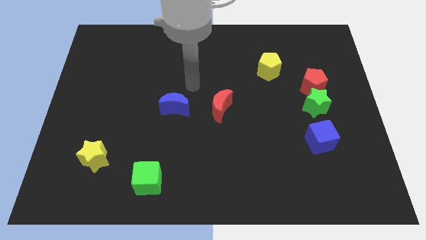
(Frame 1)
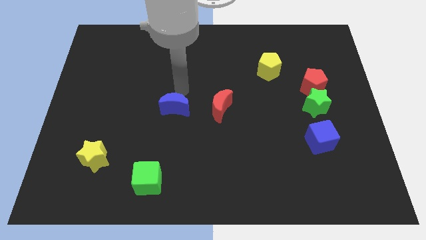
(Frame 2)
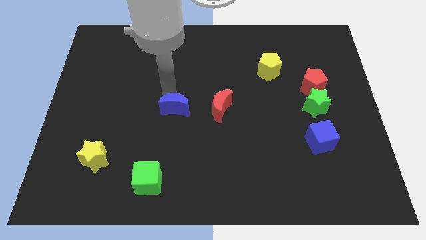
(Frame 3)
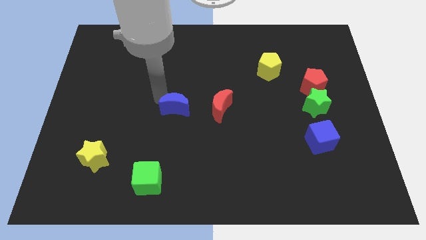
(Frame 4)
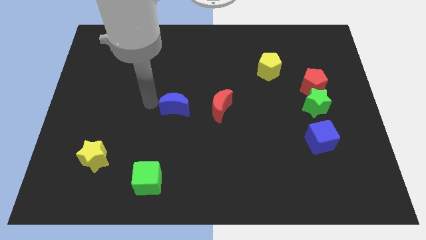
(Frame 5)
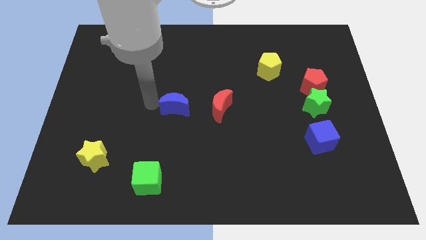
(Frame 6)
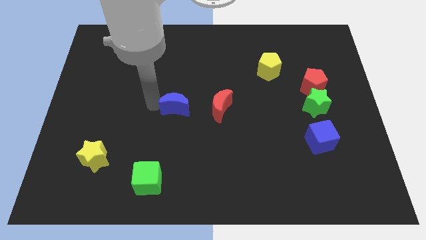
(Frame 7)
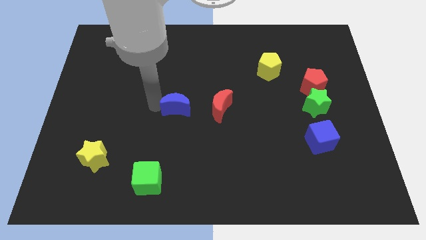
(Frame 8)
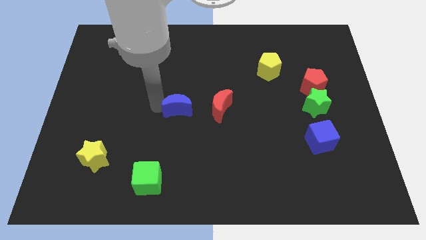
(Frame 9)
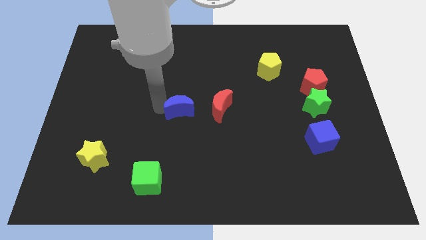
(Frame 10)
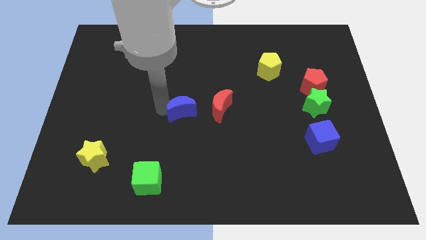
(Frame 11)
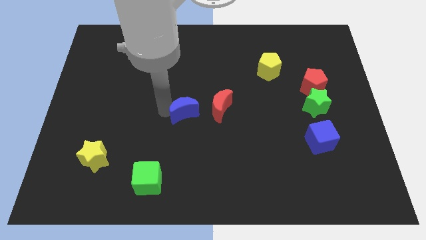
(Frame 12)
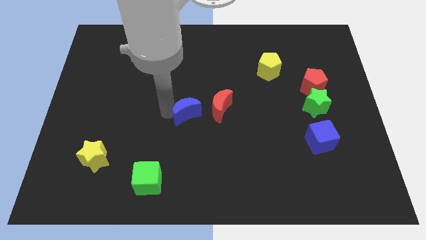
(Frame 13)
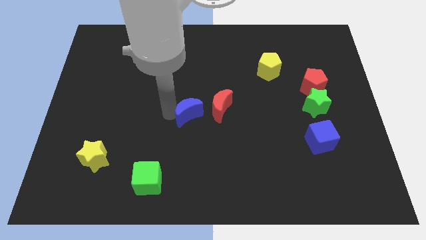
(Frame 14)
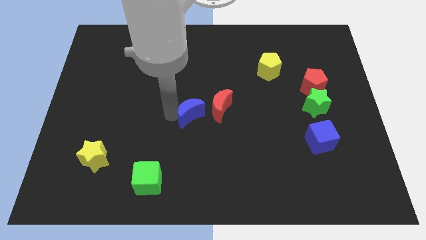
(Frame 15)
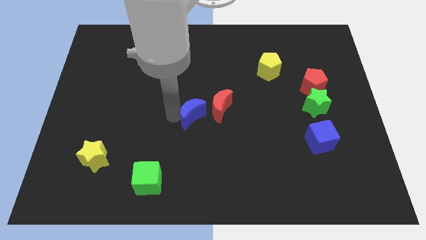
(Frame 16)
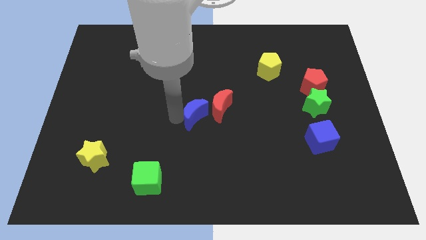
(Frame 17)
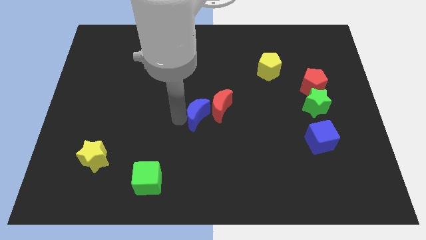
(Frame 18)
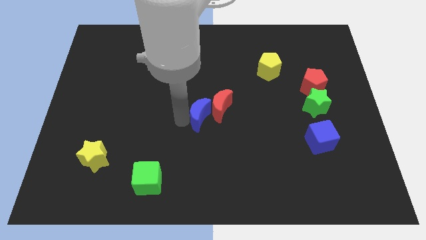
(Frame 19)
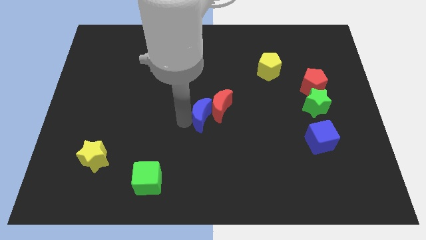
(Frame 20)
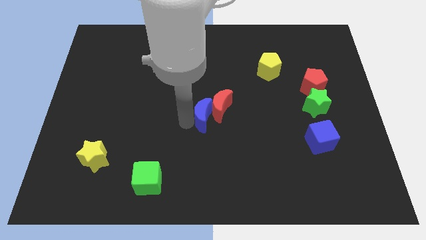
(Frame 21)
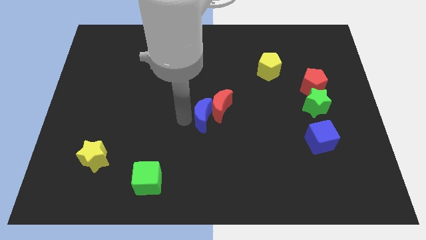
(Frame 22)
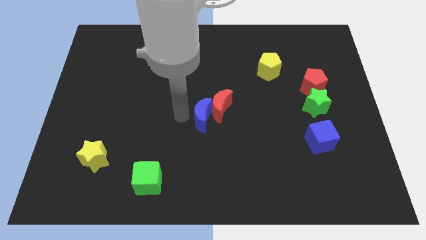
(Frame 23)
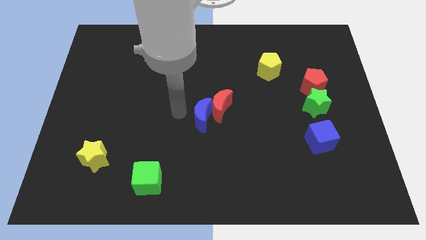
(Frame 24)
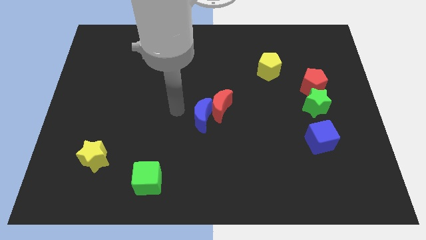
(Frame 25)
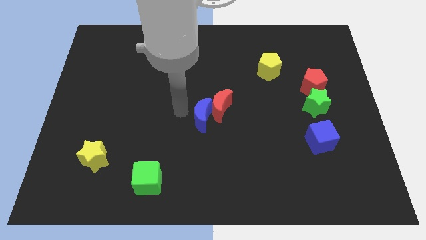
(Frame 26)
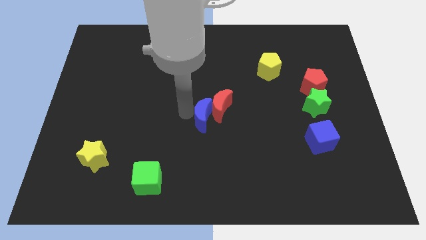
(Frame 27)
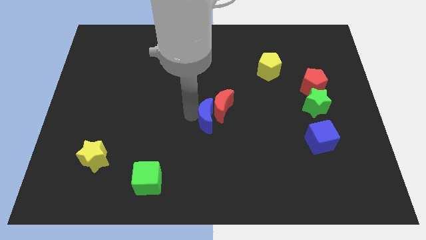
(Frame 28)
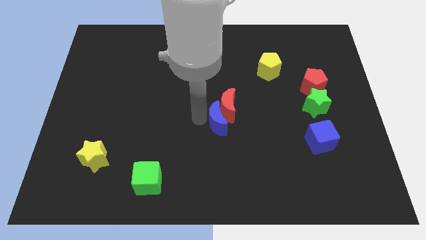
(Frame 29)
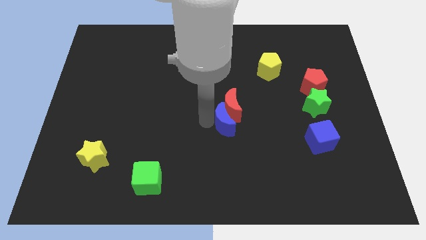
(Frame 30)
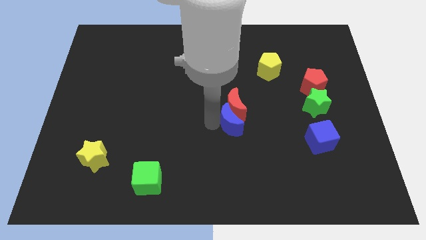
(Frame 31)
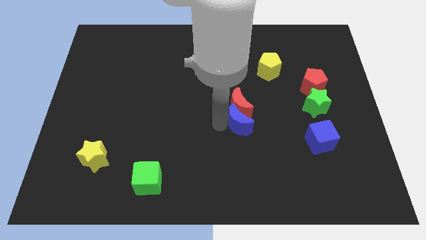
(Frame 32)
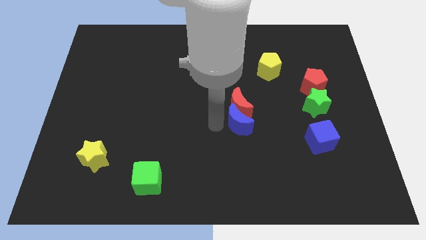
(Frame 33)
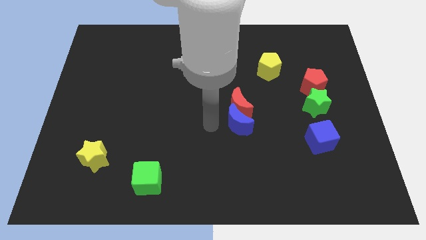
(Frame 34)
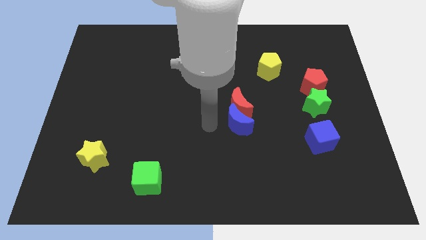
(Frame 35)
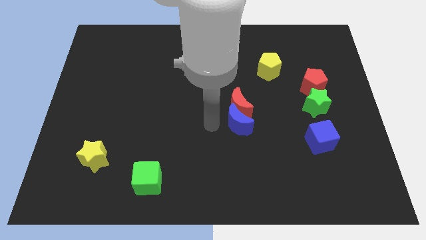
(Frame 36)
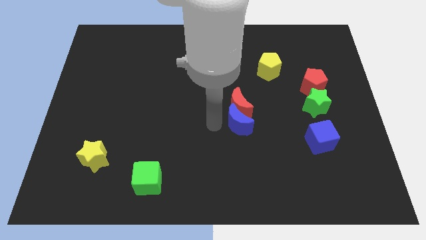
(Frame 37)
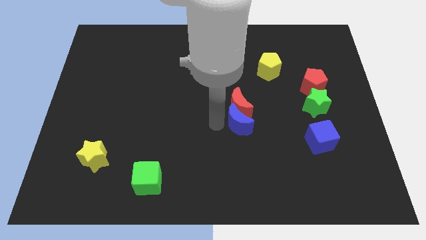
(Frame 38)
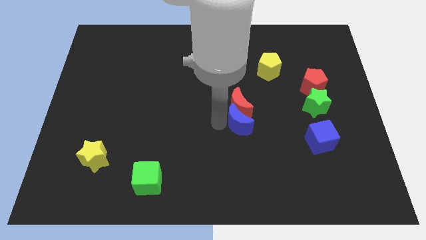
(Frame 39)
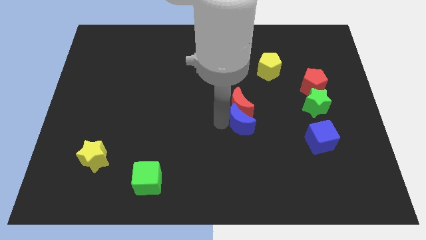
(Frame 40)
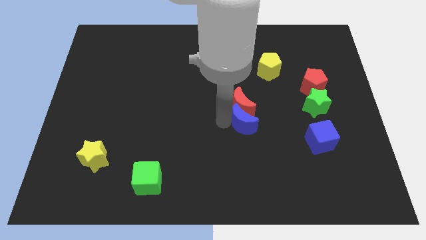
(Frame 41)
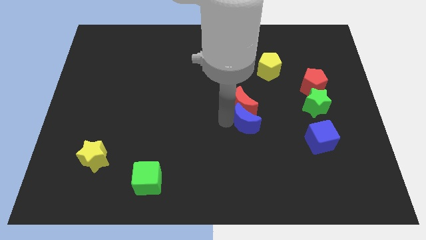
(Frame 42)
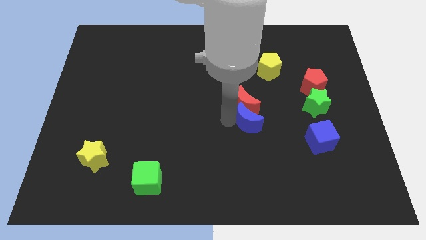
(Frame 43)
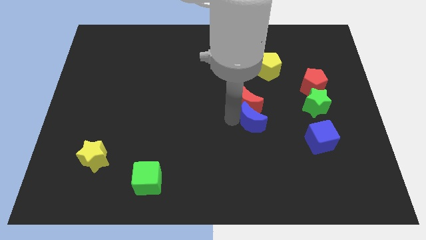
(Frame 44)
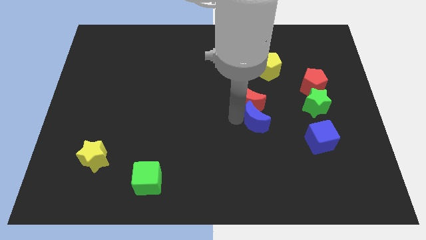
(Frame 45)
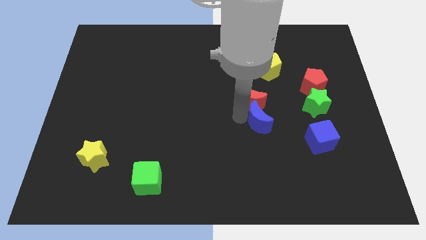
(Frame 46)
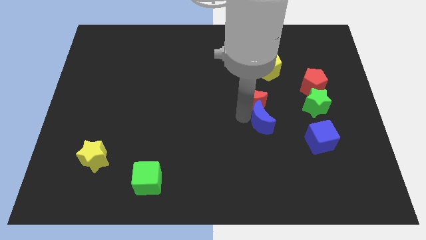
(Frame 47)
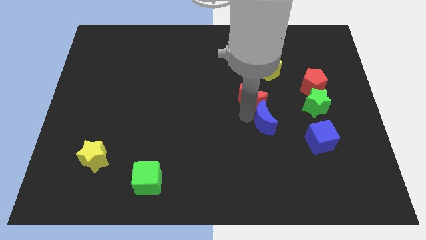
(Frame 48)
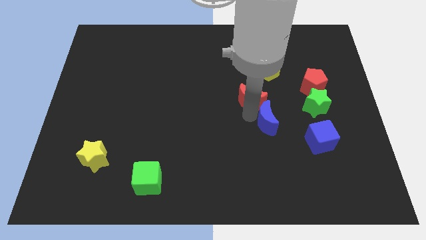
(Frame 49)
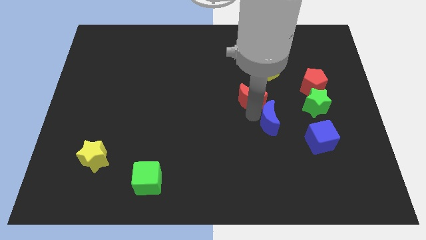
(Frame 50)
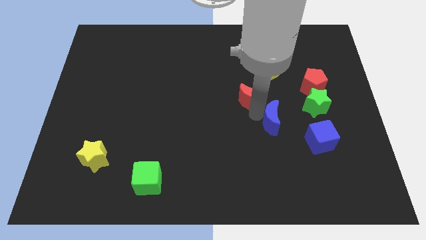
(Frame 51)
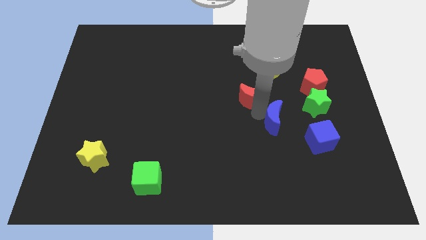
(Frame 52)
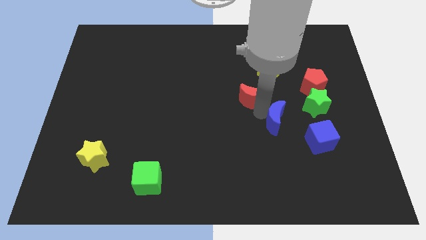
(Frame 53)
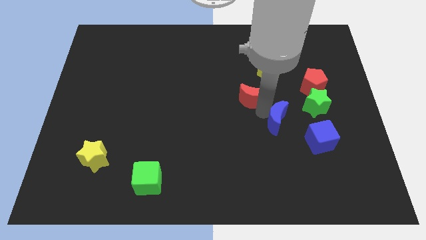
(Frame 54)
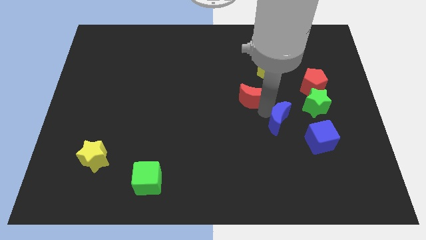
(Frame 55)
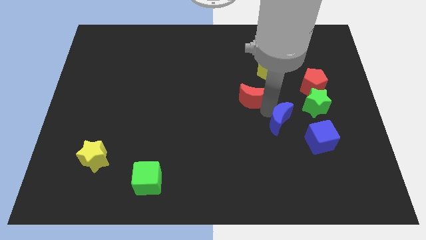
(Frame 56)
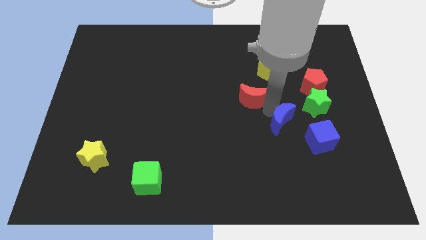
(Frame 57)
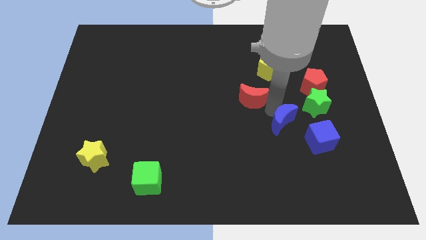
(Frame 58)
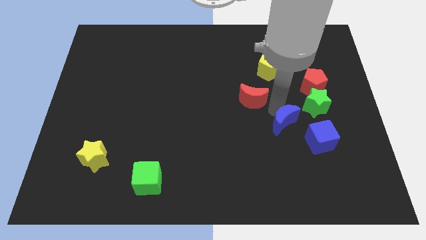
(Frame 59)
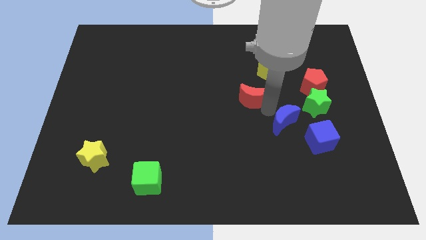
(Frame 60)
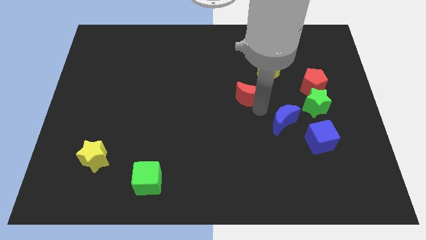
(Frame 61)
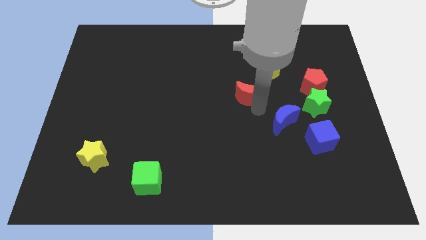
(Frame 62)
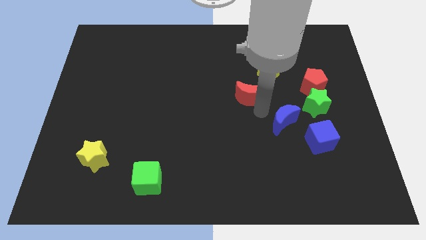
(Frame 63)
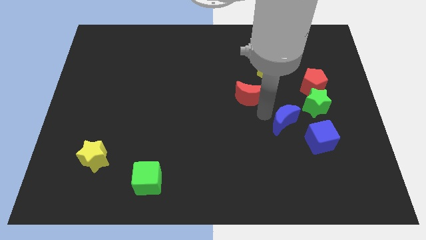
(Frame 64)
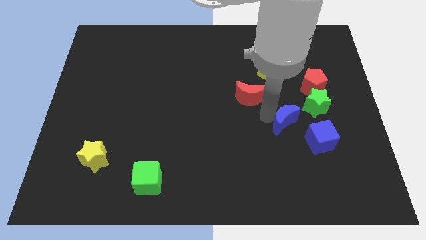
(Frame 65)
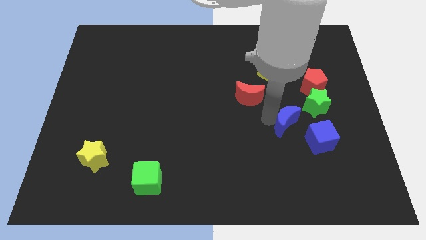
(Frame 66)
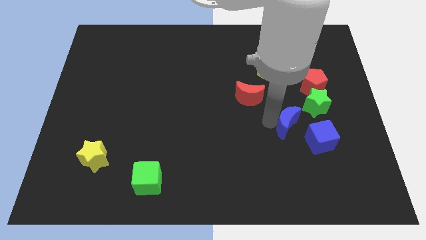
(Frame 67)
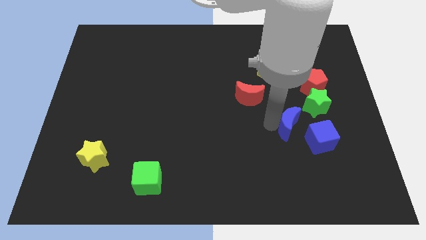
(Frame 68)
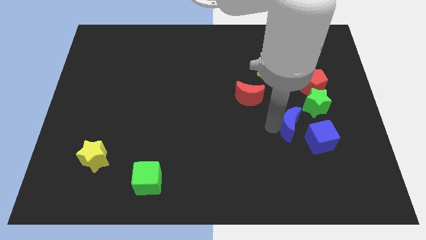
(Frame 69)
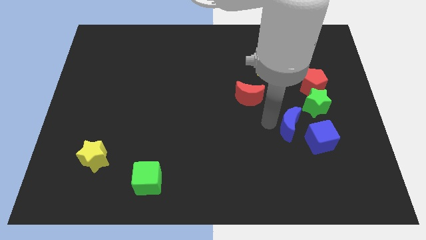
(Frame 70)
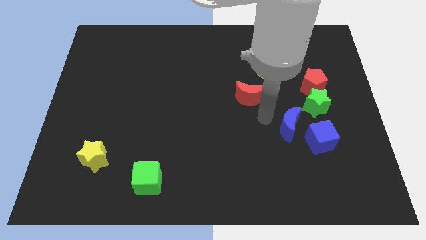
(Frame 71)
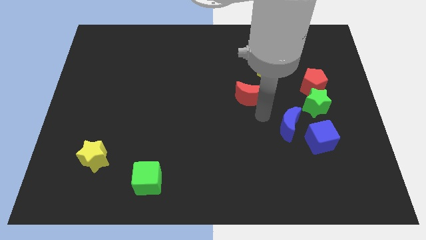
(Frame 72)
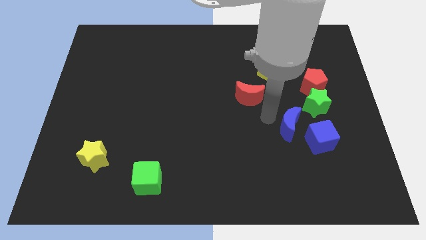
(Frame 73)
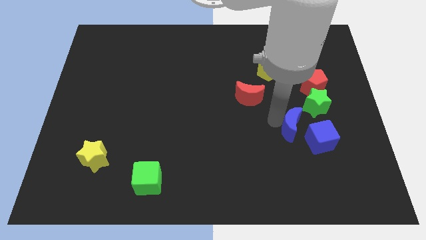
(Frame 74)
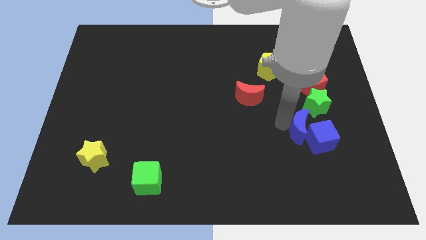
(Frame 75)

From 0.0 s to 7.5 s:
move the blue moon towards the blue cube
